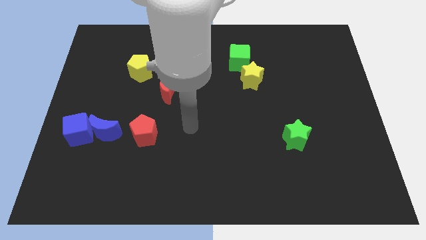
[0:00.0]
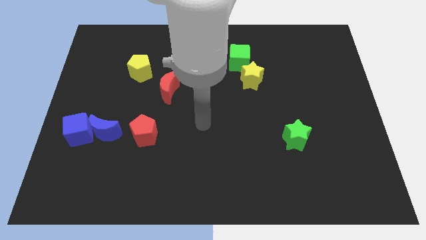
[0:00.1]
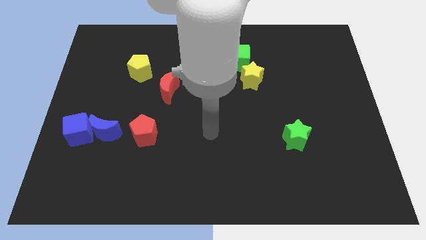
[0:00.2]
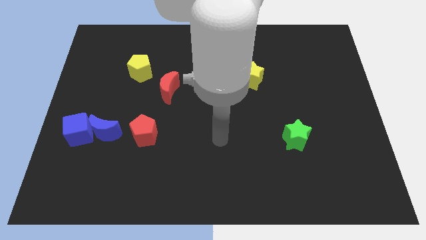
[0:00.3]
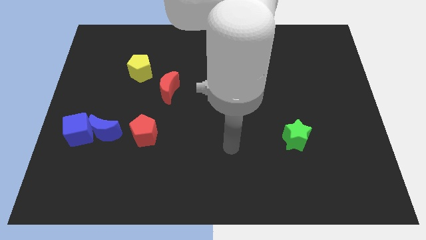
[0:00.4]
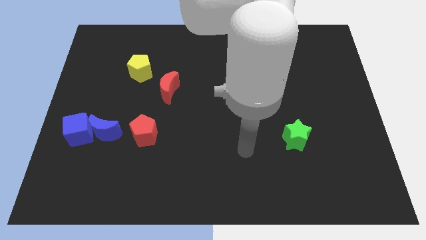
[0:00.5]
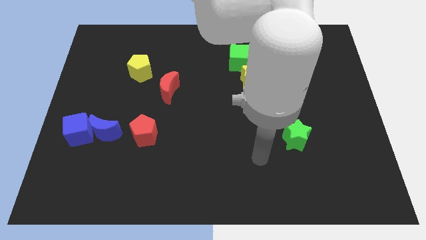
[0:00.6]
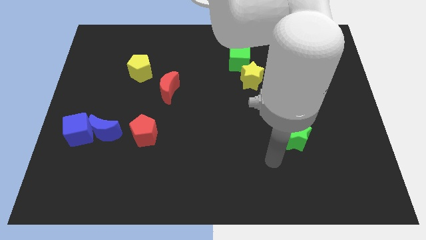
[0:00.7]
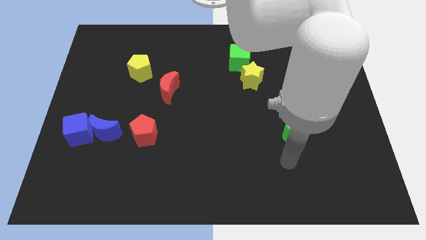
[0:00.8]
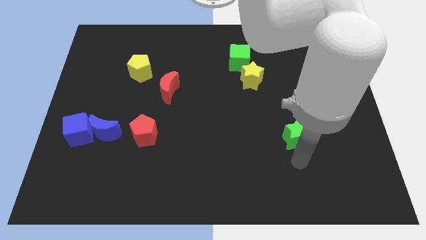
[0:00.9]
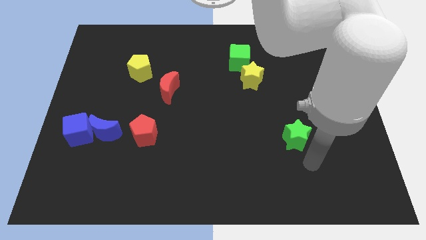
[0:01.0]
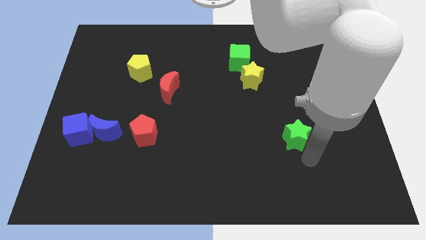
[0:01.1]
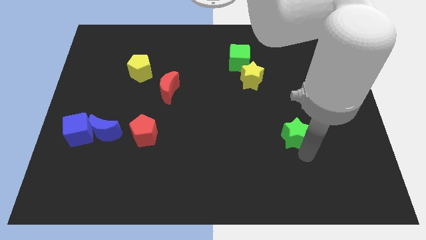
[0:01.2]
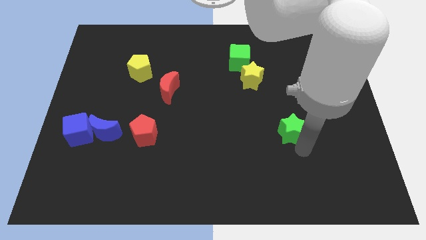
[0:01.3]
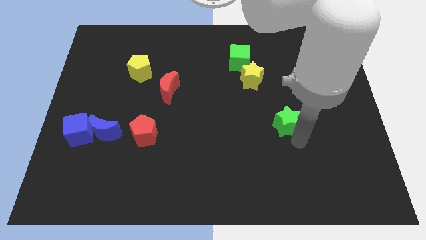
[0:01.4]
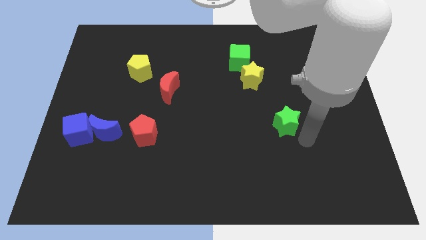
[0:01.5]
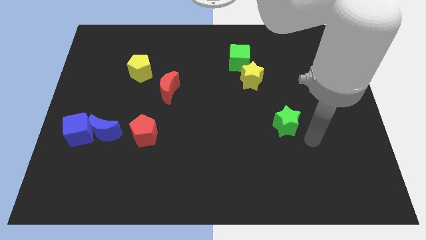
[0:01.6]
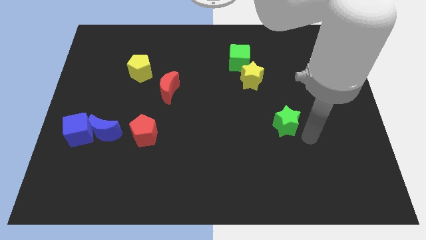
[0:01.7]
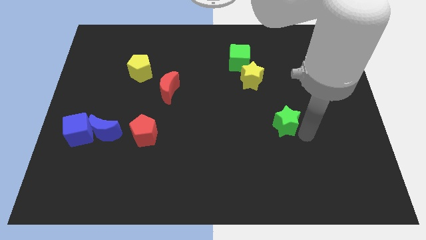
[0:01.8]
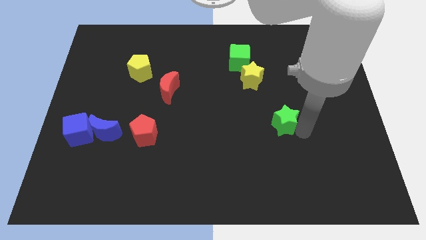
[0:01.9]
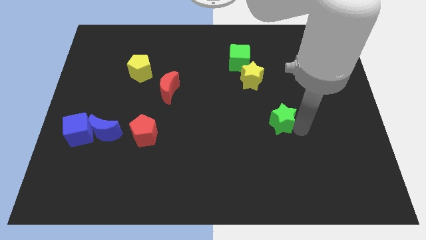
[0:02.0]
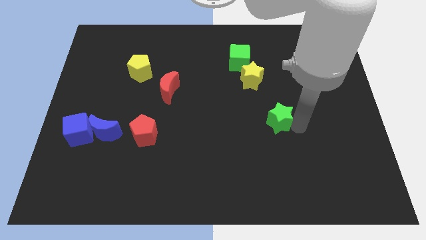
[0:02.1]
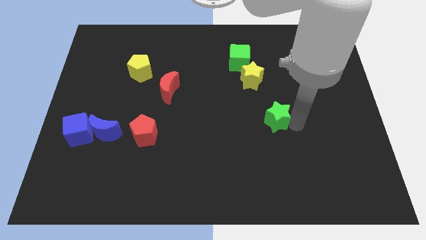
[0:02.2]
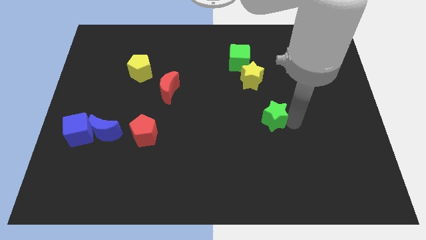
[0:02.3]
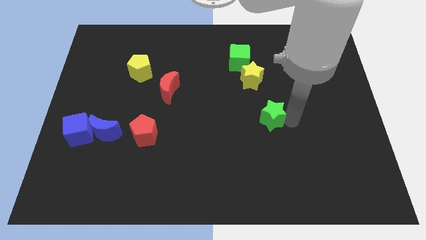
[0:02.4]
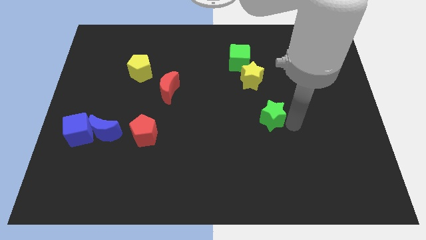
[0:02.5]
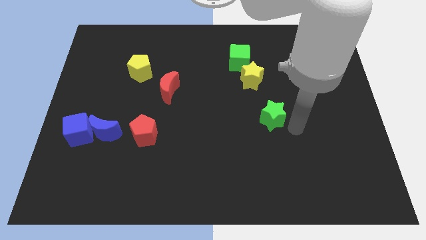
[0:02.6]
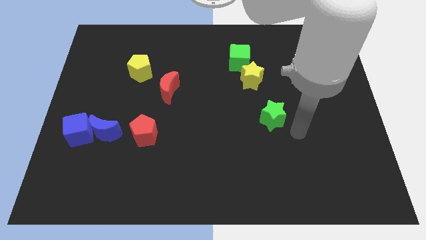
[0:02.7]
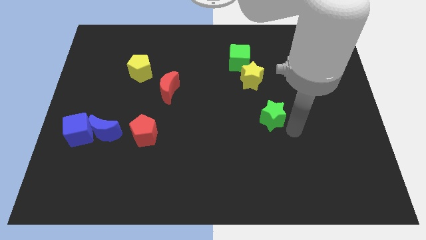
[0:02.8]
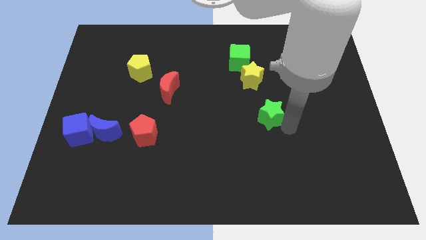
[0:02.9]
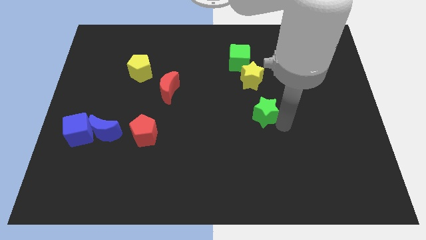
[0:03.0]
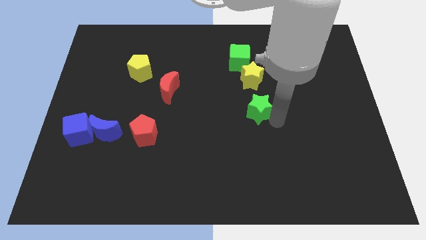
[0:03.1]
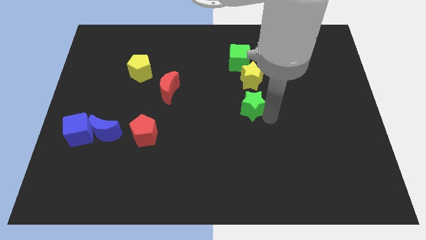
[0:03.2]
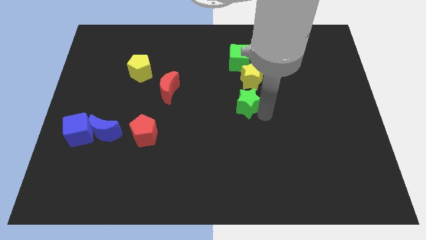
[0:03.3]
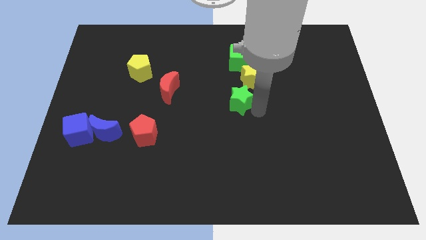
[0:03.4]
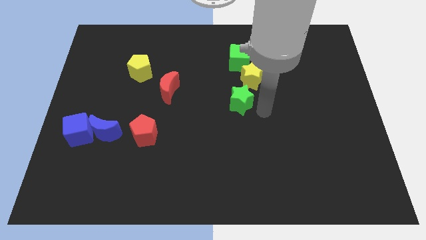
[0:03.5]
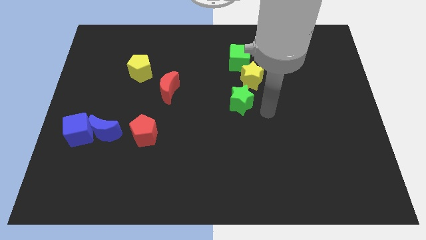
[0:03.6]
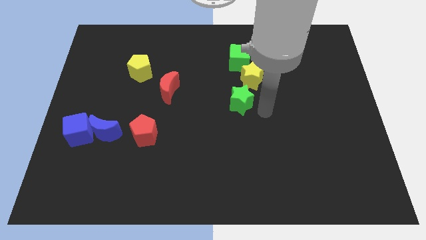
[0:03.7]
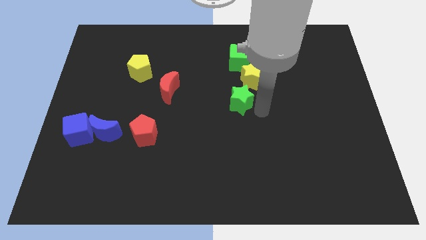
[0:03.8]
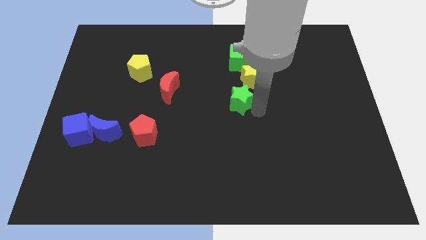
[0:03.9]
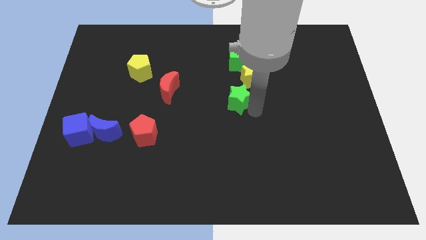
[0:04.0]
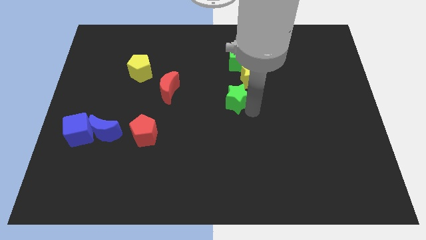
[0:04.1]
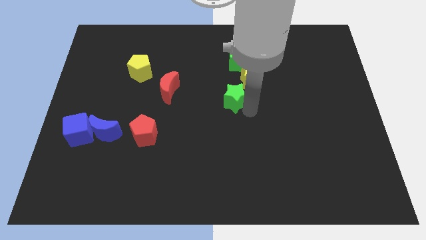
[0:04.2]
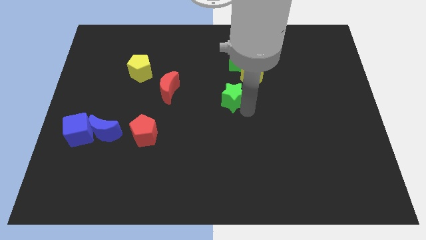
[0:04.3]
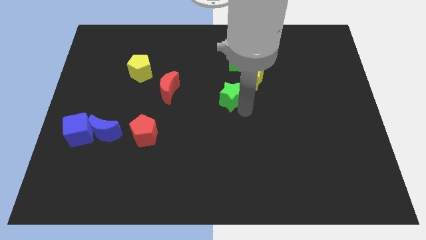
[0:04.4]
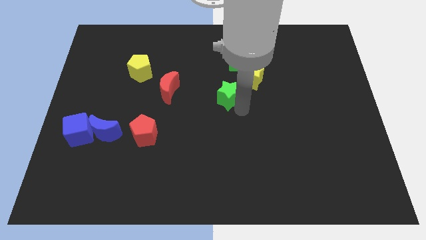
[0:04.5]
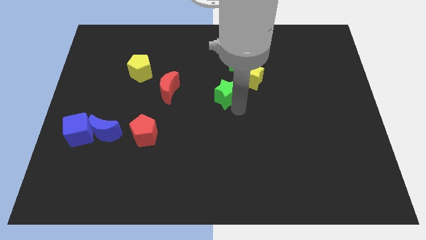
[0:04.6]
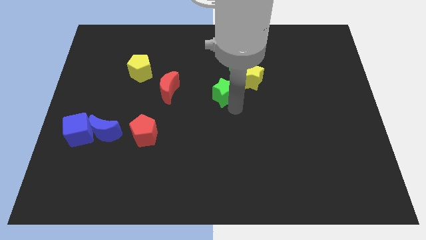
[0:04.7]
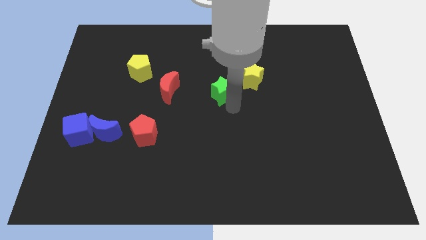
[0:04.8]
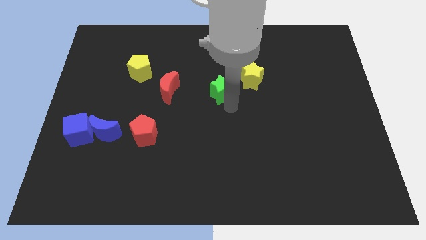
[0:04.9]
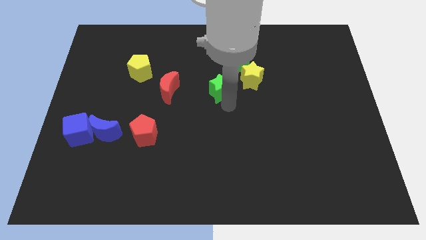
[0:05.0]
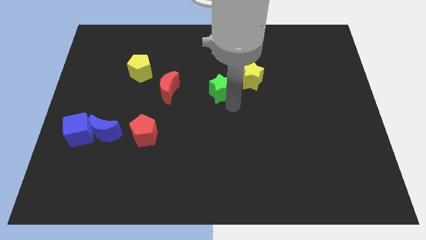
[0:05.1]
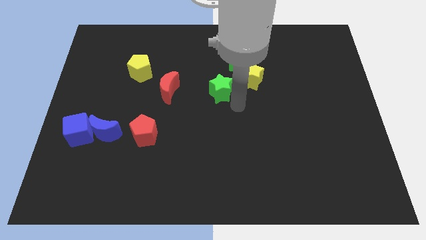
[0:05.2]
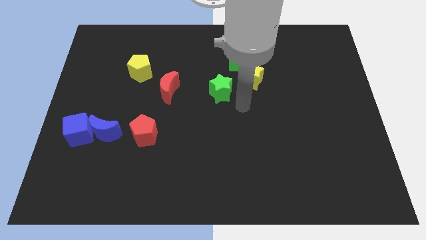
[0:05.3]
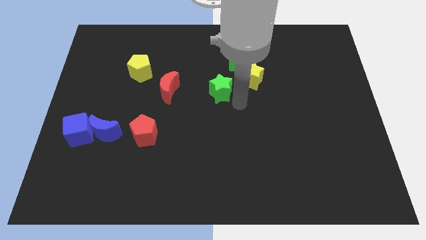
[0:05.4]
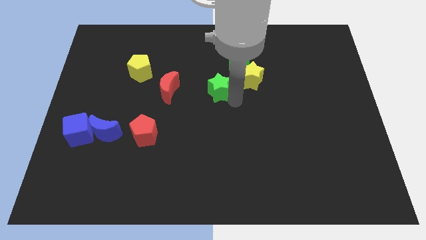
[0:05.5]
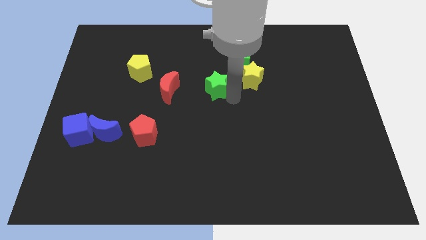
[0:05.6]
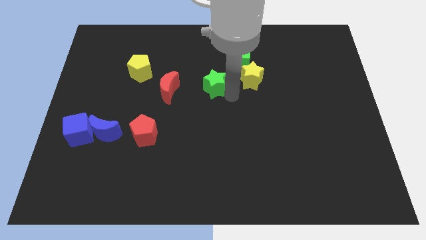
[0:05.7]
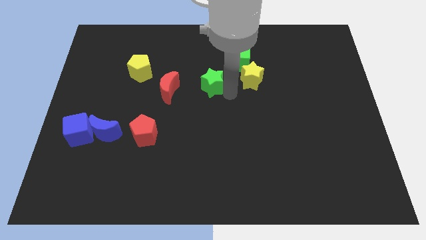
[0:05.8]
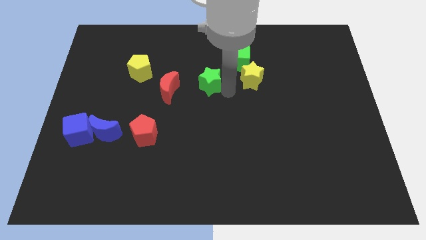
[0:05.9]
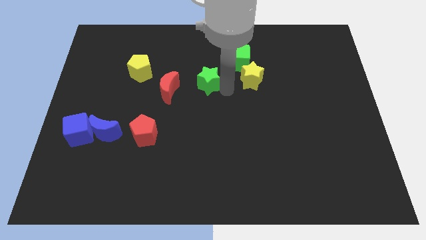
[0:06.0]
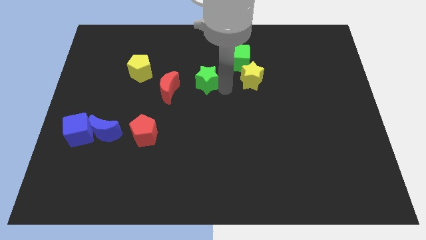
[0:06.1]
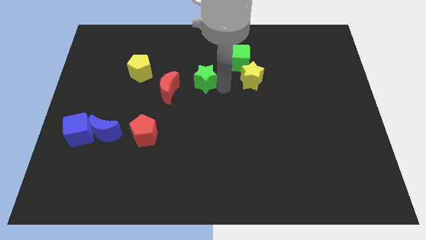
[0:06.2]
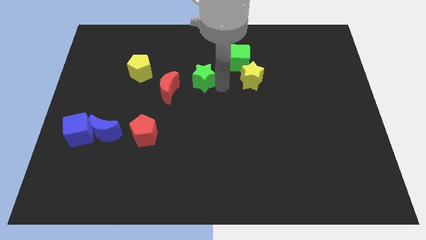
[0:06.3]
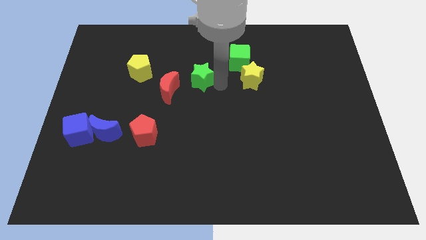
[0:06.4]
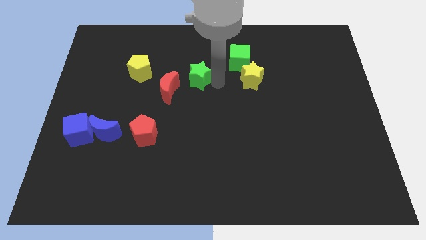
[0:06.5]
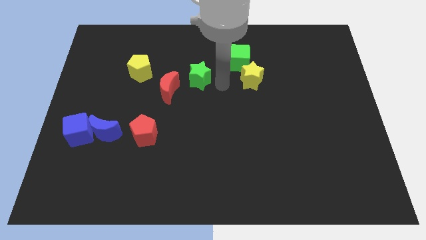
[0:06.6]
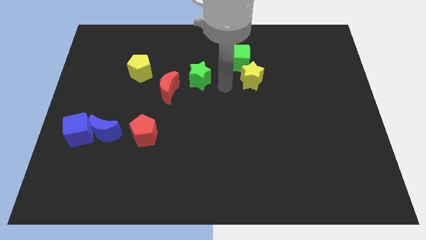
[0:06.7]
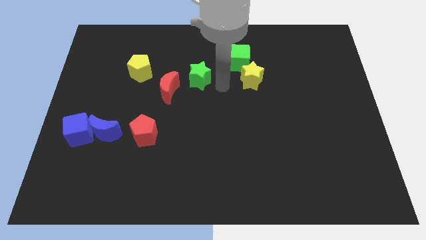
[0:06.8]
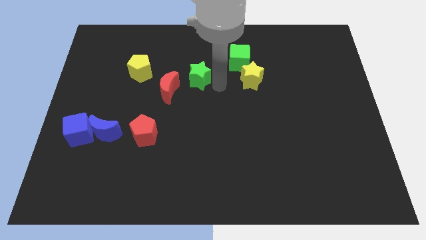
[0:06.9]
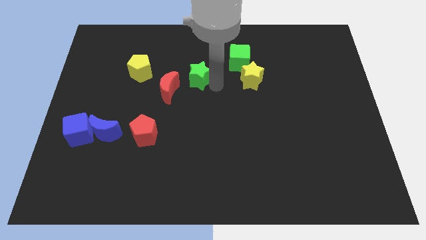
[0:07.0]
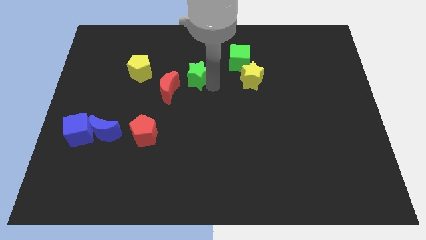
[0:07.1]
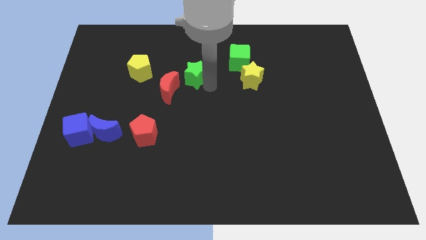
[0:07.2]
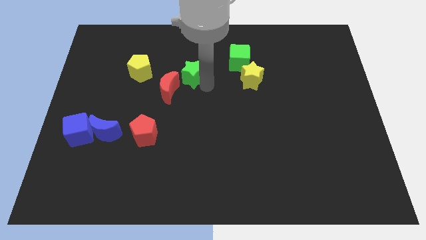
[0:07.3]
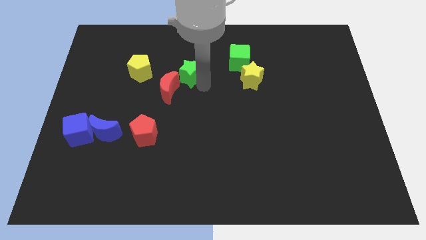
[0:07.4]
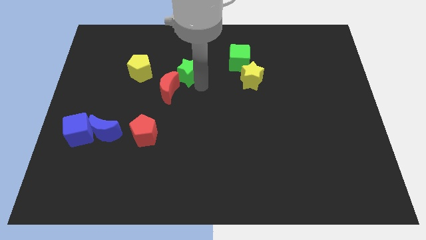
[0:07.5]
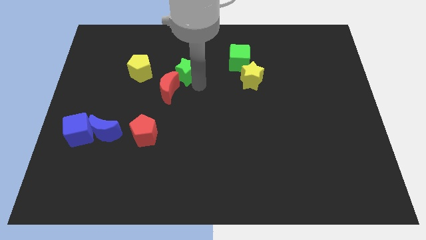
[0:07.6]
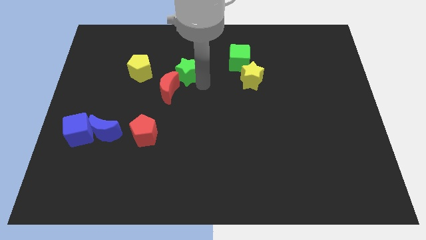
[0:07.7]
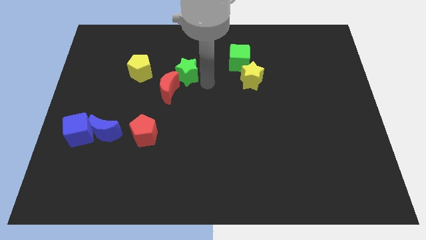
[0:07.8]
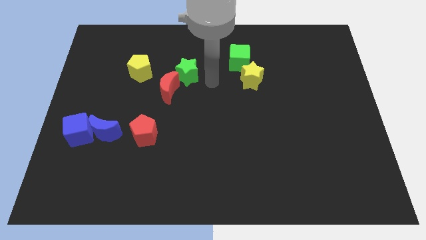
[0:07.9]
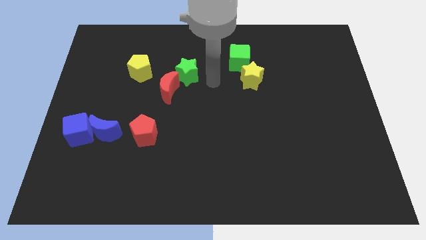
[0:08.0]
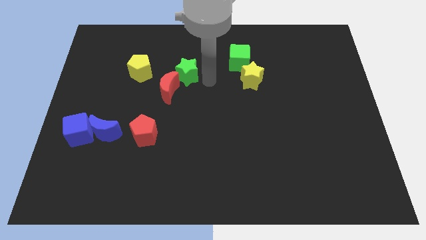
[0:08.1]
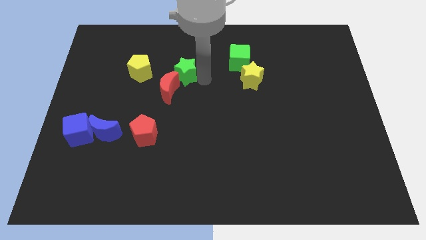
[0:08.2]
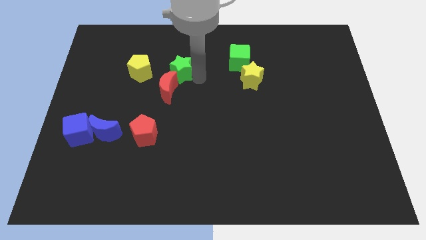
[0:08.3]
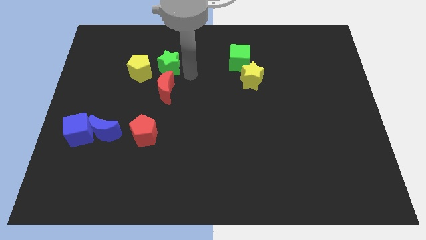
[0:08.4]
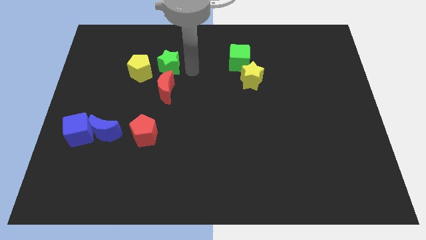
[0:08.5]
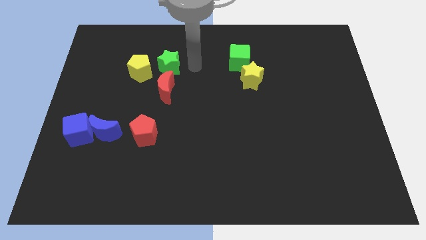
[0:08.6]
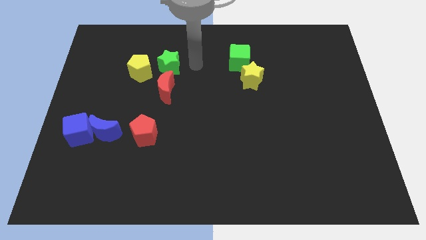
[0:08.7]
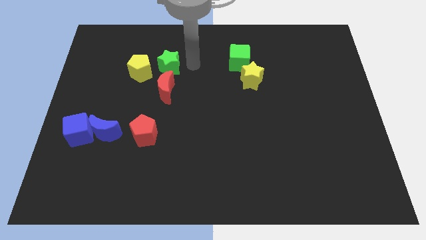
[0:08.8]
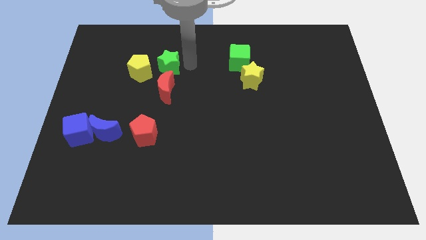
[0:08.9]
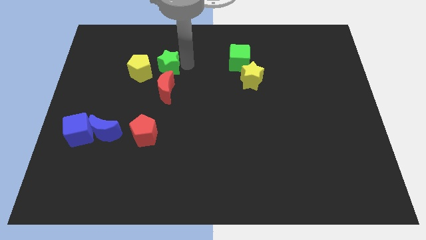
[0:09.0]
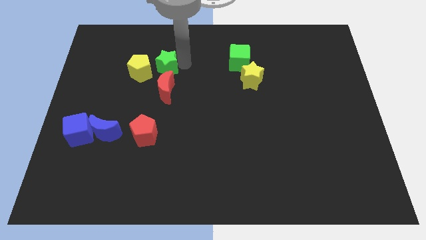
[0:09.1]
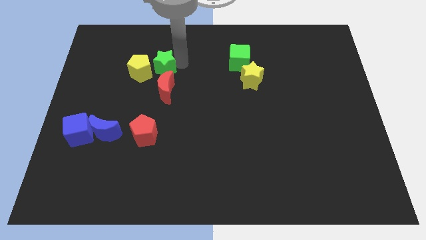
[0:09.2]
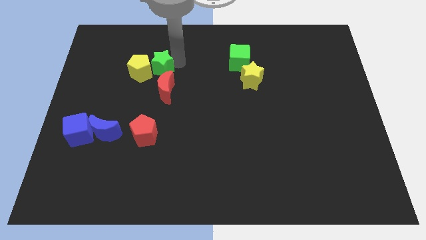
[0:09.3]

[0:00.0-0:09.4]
push the green star next to the yellow pentagon
